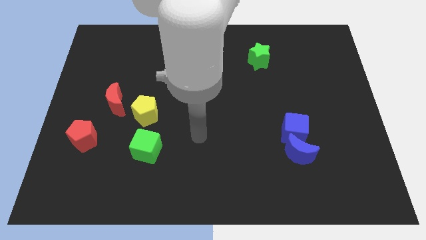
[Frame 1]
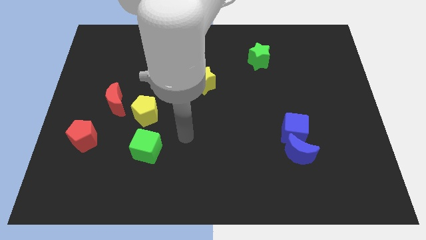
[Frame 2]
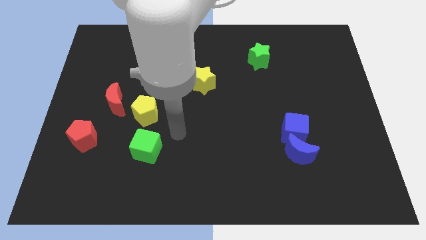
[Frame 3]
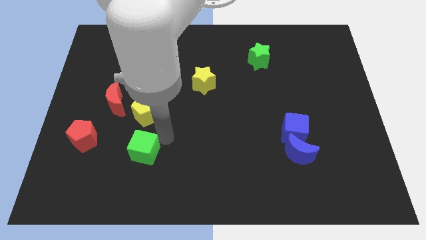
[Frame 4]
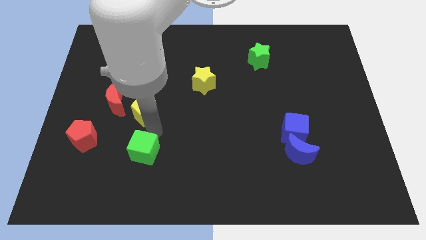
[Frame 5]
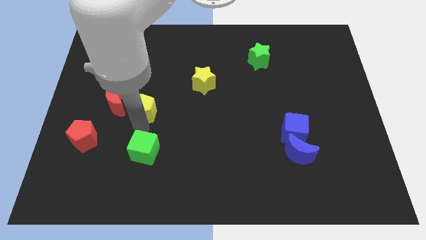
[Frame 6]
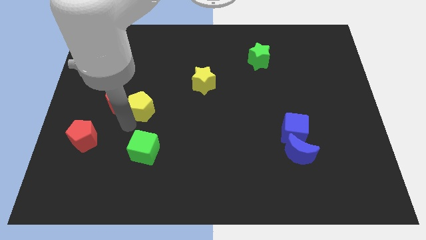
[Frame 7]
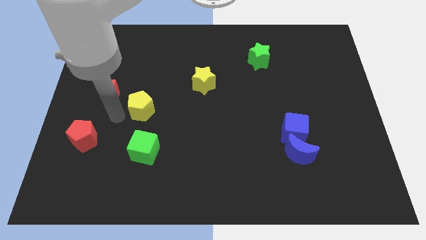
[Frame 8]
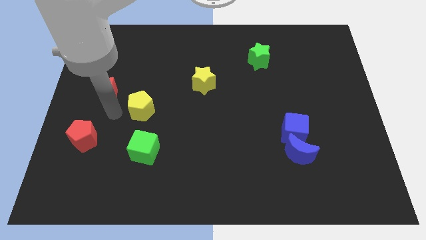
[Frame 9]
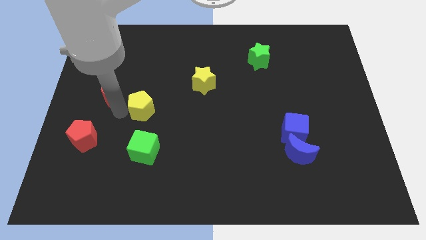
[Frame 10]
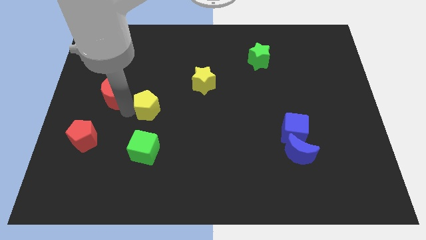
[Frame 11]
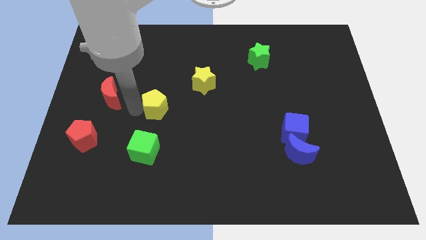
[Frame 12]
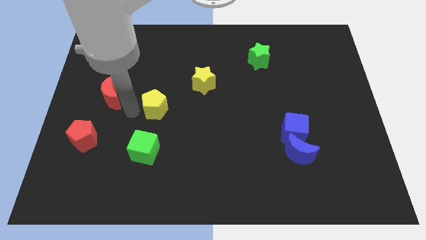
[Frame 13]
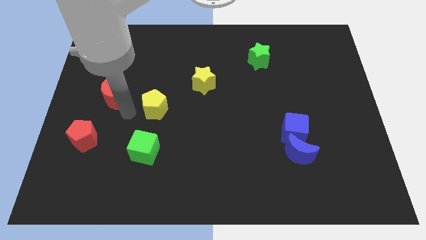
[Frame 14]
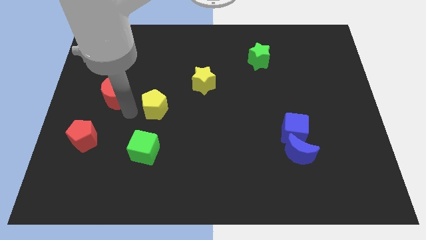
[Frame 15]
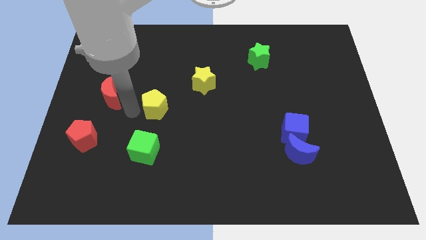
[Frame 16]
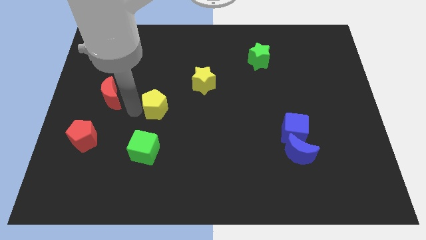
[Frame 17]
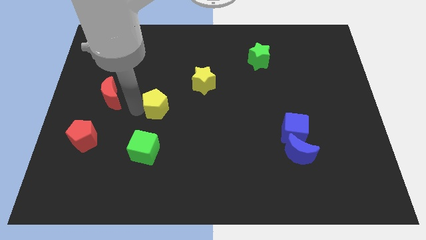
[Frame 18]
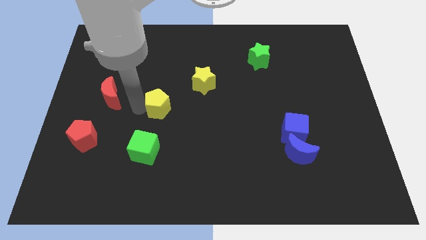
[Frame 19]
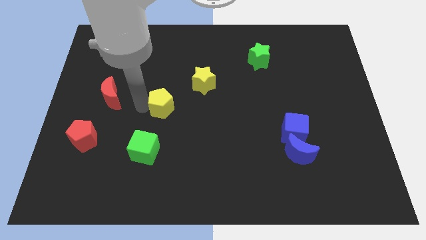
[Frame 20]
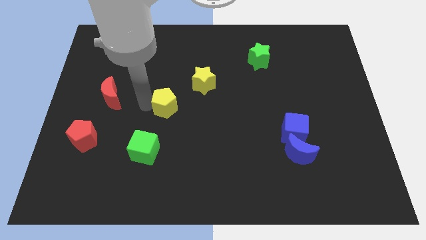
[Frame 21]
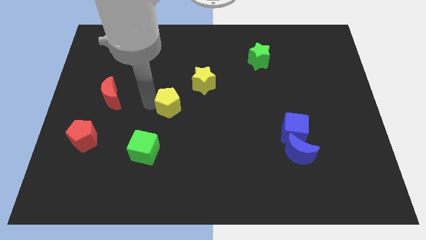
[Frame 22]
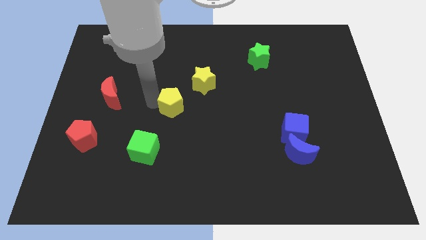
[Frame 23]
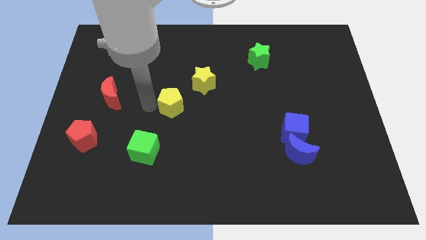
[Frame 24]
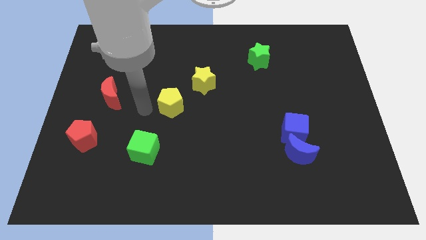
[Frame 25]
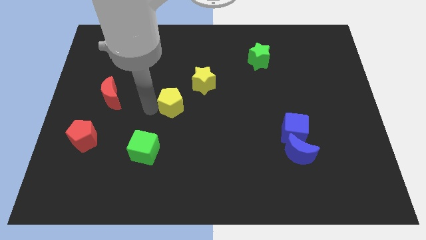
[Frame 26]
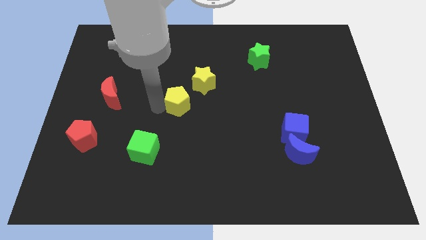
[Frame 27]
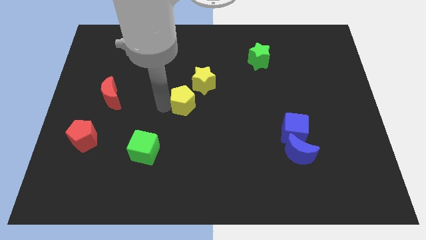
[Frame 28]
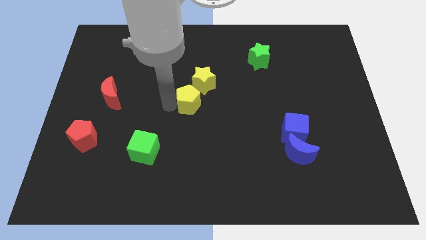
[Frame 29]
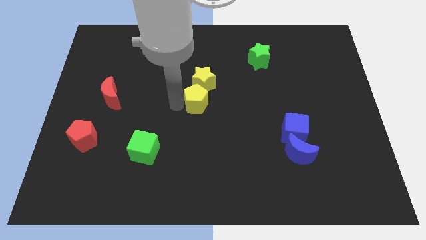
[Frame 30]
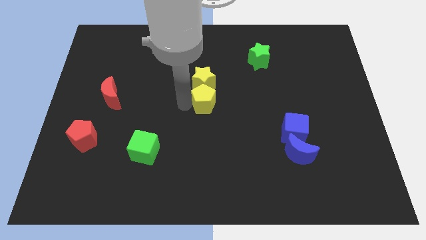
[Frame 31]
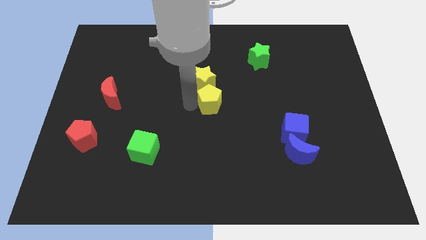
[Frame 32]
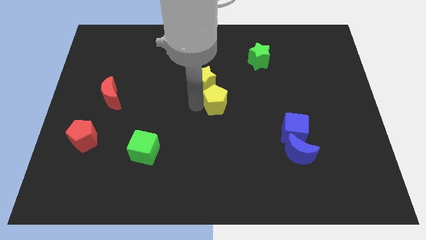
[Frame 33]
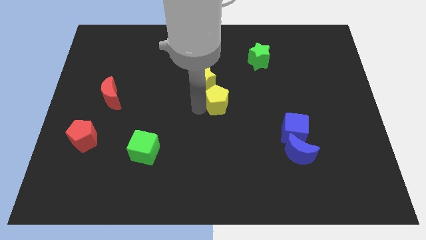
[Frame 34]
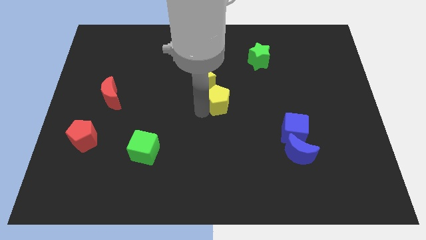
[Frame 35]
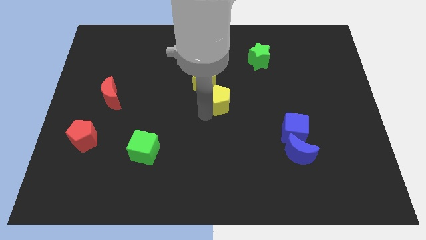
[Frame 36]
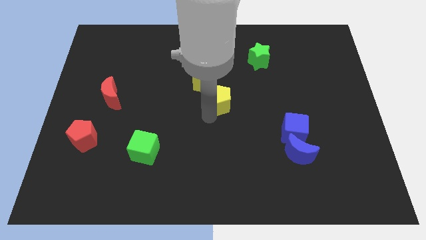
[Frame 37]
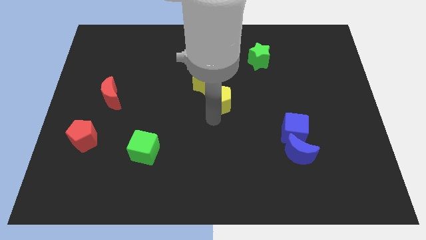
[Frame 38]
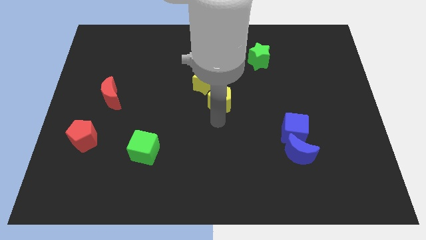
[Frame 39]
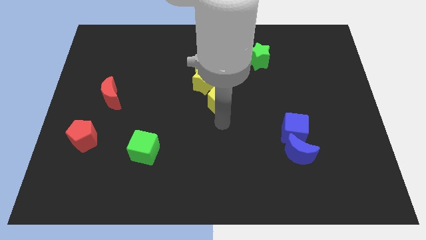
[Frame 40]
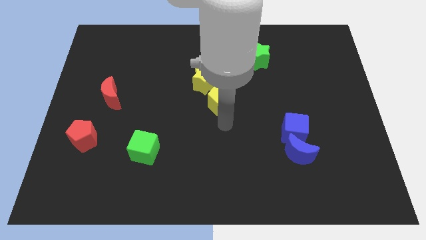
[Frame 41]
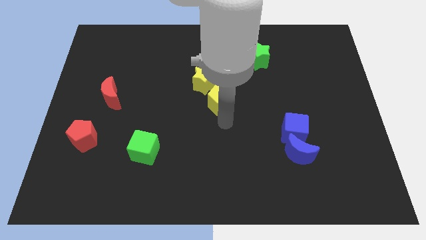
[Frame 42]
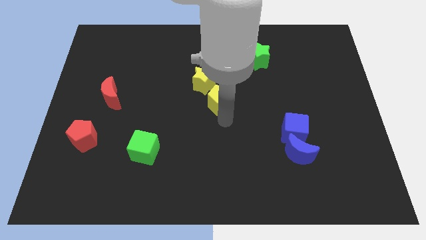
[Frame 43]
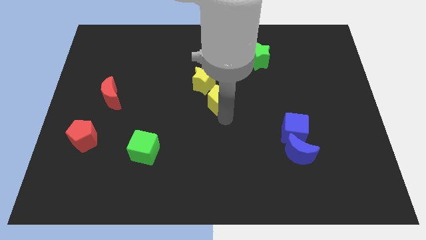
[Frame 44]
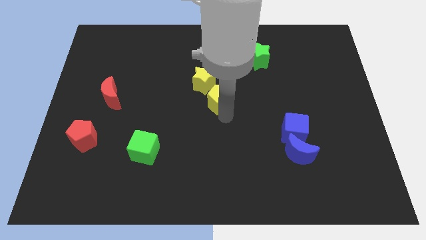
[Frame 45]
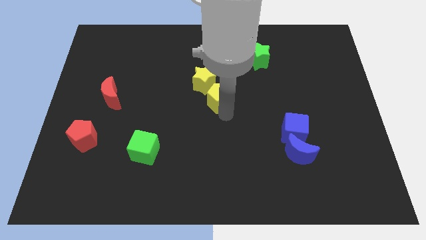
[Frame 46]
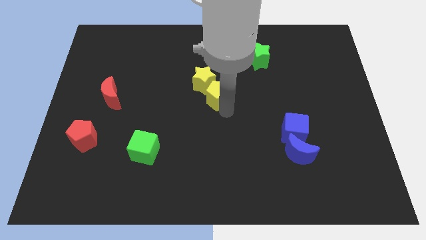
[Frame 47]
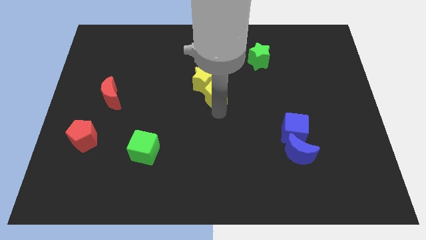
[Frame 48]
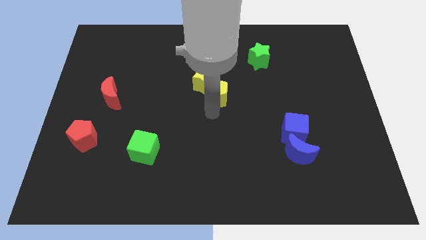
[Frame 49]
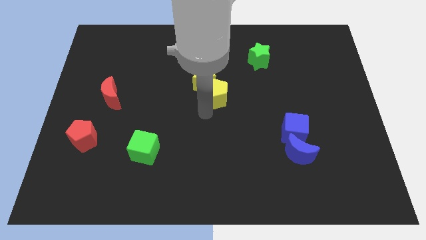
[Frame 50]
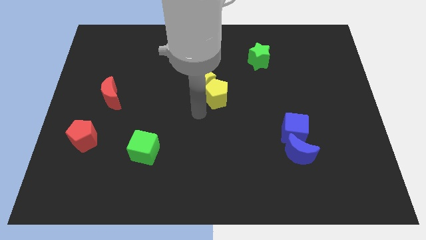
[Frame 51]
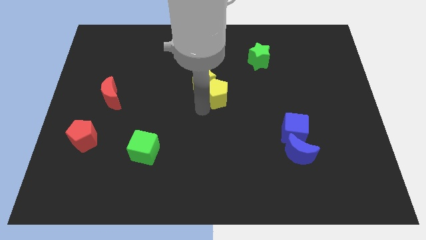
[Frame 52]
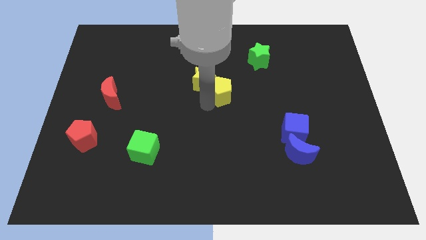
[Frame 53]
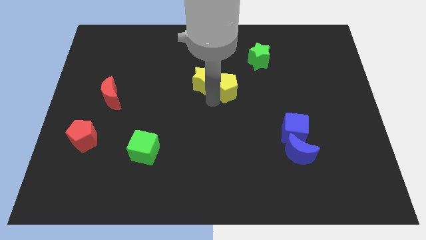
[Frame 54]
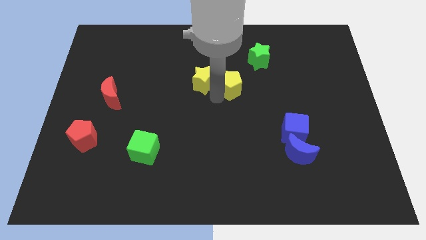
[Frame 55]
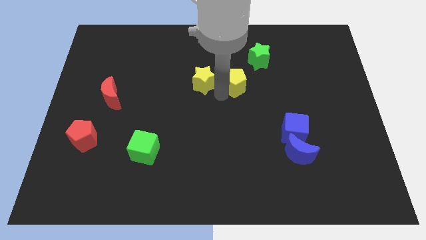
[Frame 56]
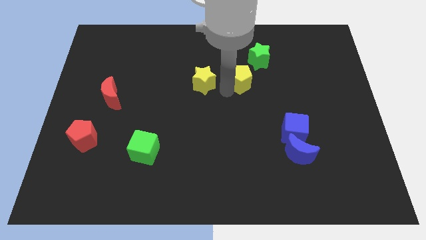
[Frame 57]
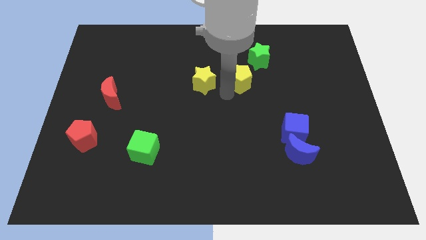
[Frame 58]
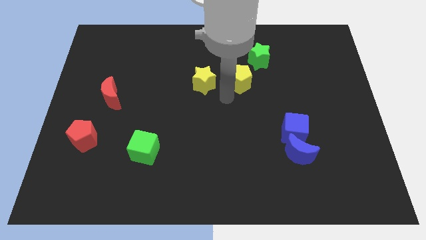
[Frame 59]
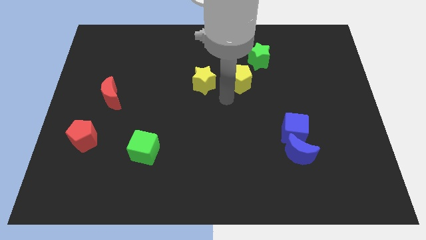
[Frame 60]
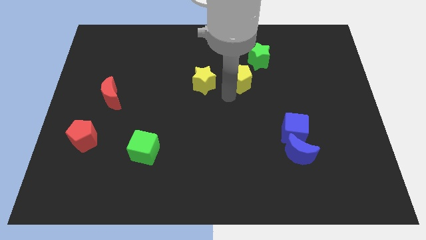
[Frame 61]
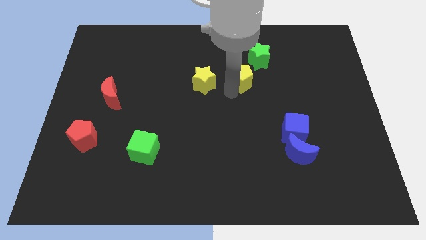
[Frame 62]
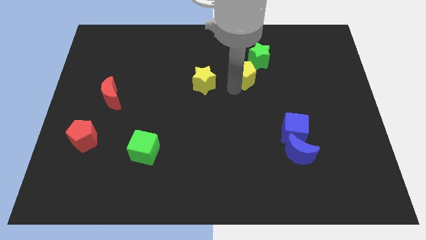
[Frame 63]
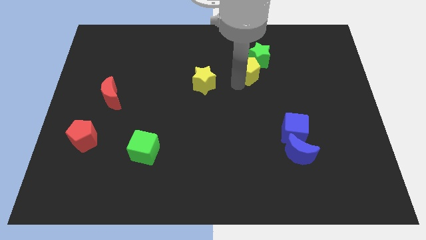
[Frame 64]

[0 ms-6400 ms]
slide the yellow pentagon to the green star

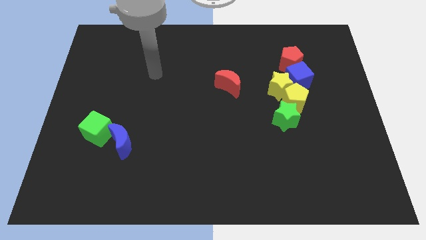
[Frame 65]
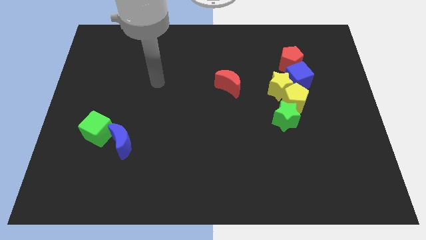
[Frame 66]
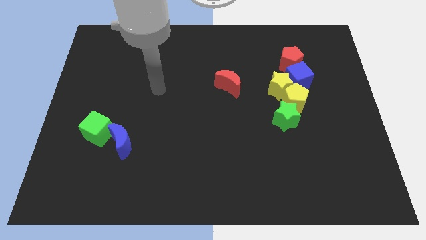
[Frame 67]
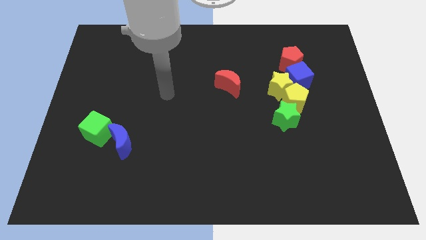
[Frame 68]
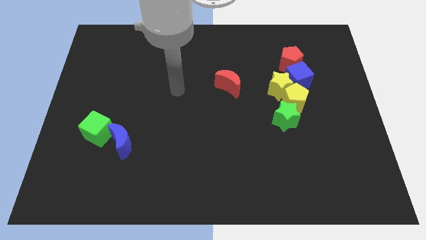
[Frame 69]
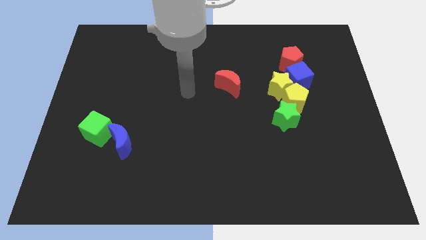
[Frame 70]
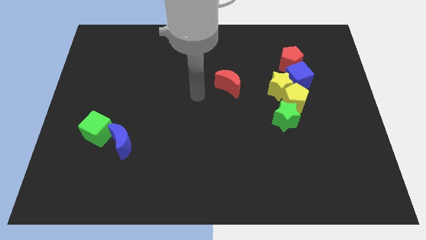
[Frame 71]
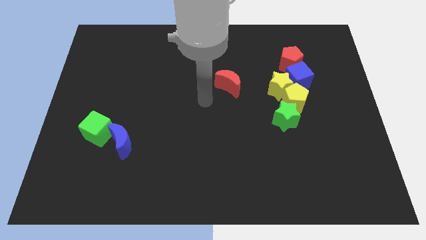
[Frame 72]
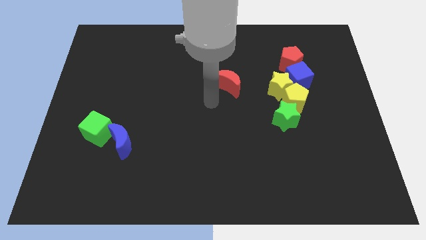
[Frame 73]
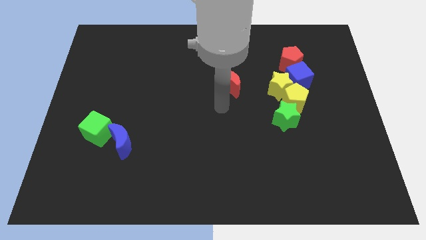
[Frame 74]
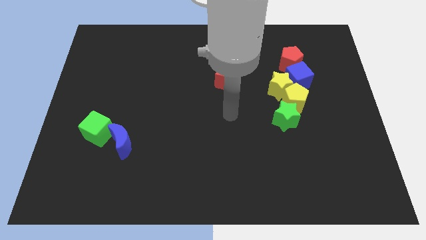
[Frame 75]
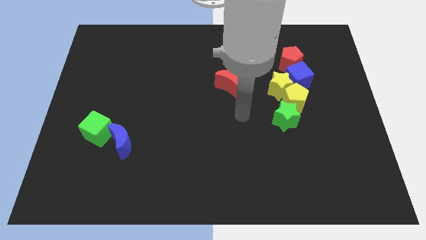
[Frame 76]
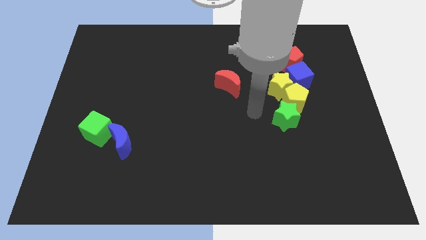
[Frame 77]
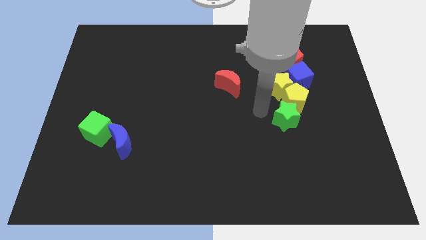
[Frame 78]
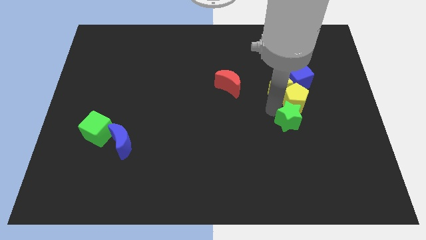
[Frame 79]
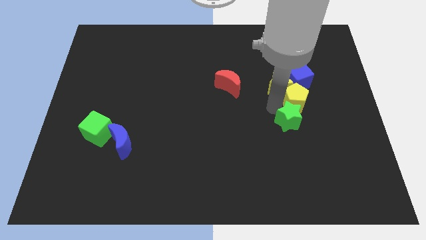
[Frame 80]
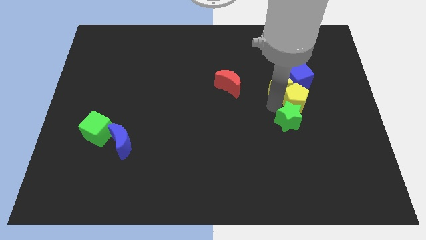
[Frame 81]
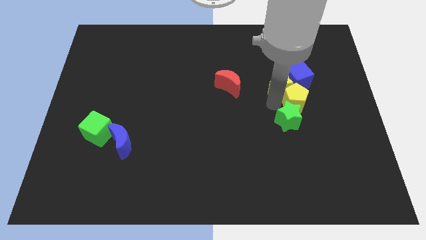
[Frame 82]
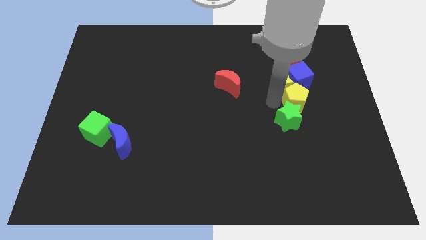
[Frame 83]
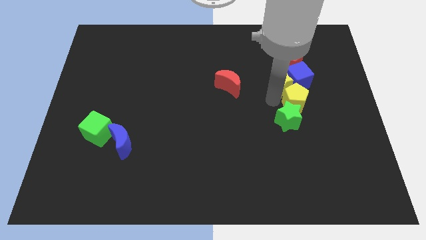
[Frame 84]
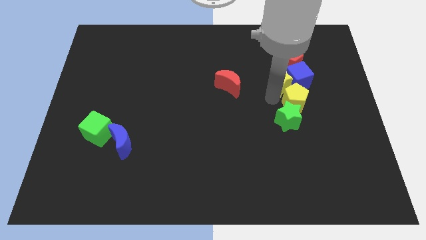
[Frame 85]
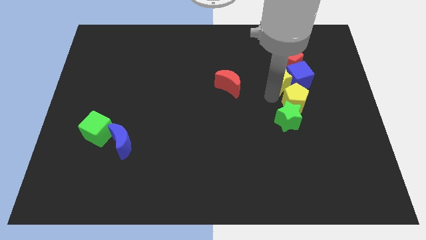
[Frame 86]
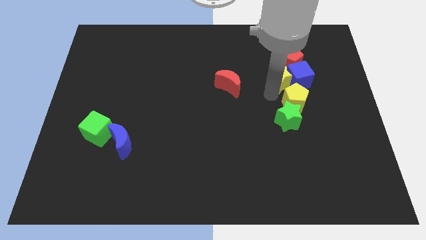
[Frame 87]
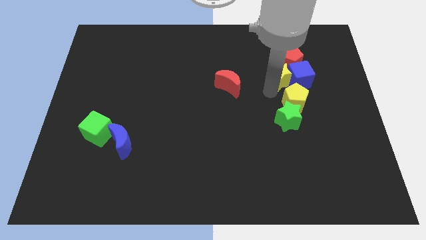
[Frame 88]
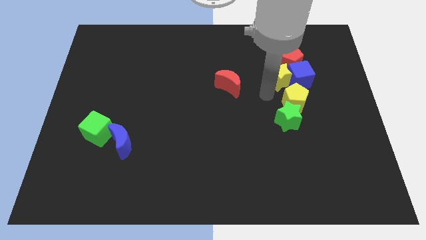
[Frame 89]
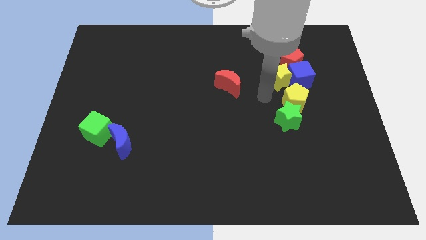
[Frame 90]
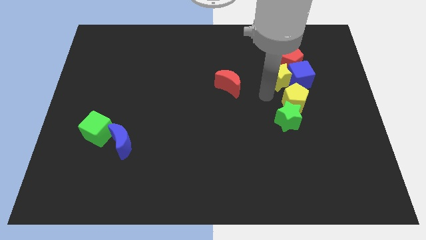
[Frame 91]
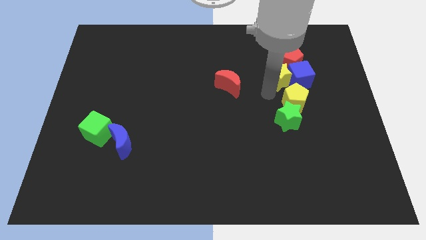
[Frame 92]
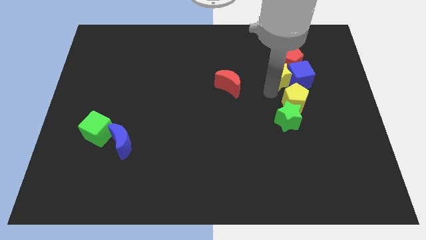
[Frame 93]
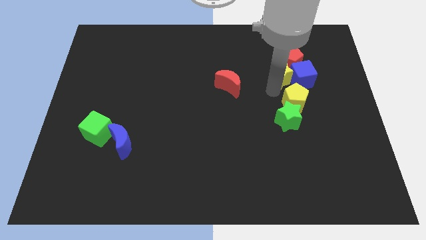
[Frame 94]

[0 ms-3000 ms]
push the yellow star towards the red pentagon
